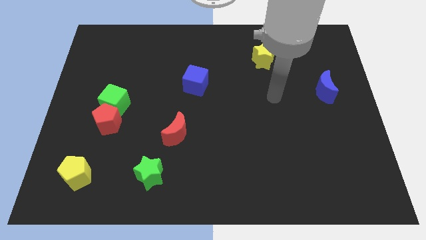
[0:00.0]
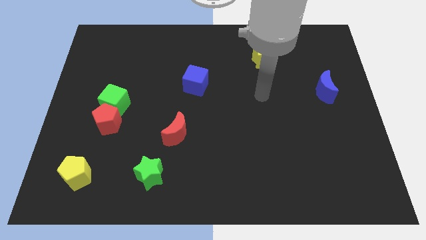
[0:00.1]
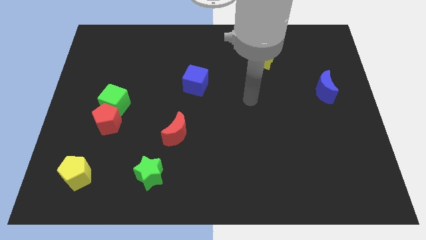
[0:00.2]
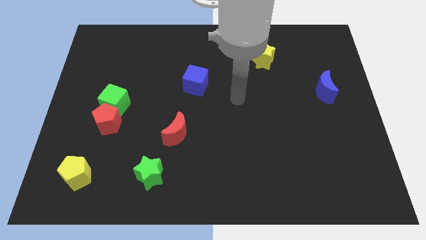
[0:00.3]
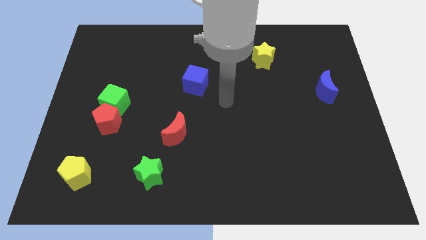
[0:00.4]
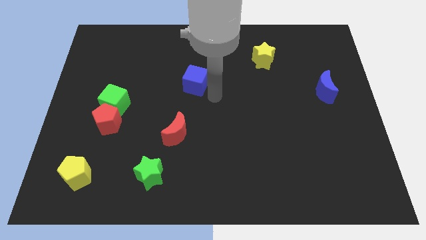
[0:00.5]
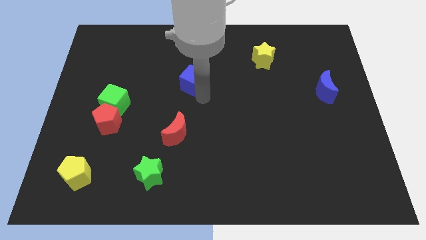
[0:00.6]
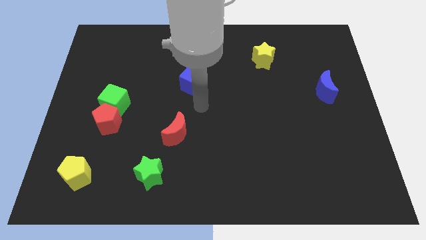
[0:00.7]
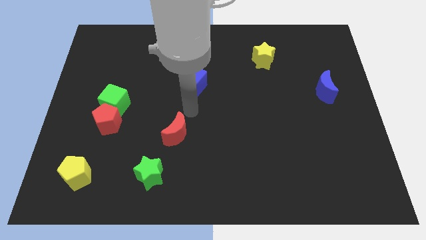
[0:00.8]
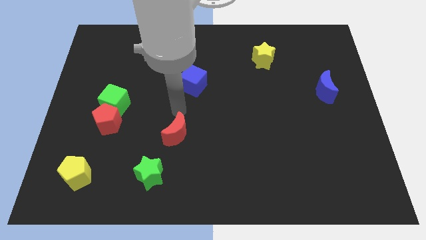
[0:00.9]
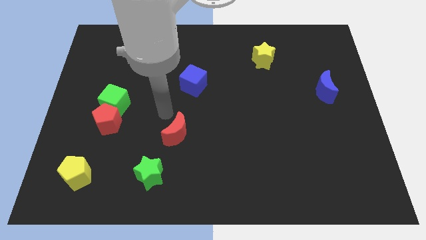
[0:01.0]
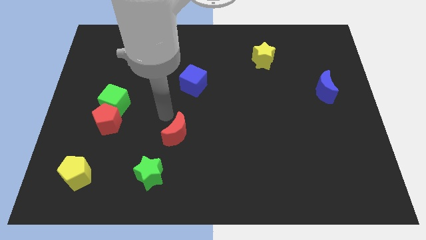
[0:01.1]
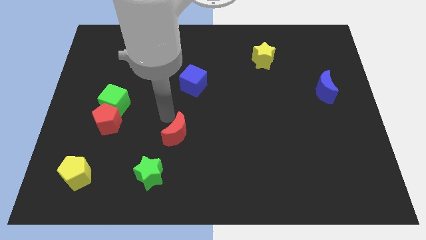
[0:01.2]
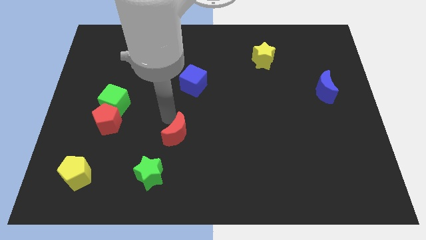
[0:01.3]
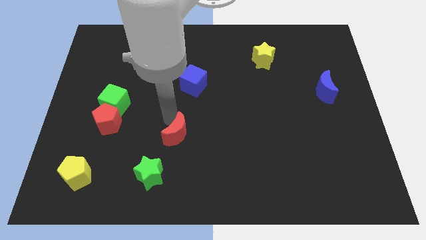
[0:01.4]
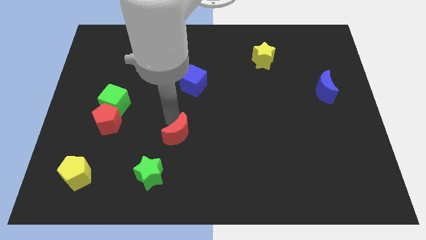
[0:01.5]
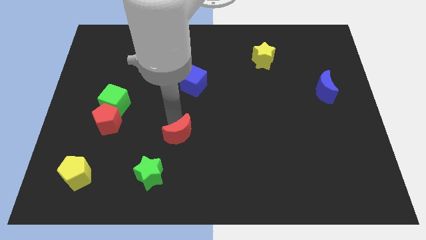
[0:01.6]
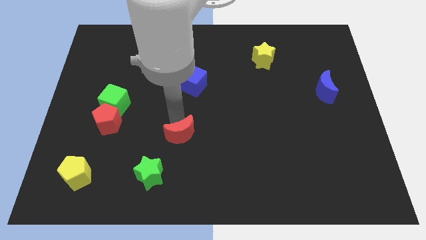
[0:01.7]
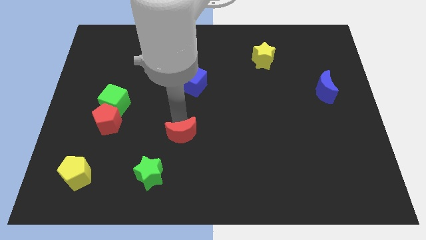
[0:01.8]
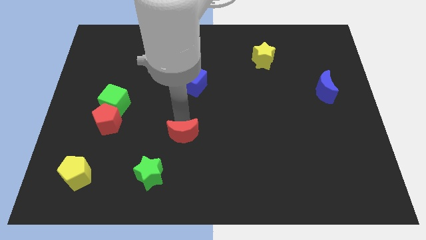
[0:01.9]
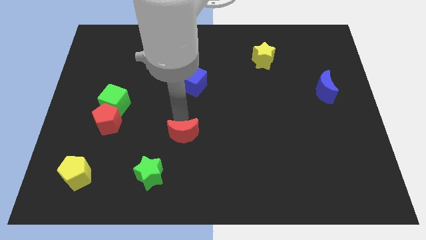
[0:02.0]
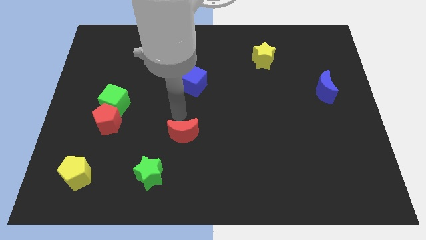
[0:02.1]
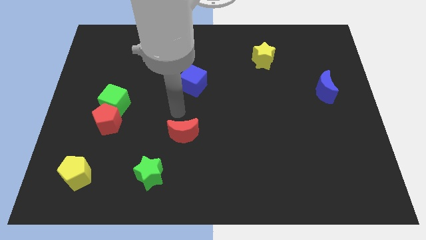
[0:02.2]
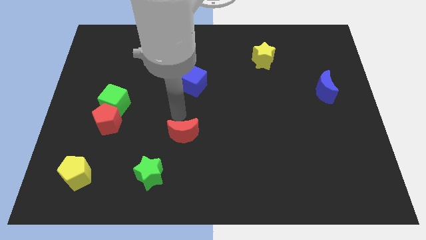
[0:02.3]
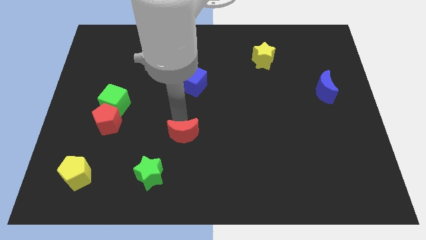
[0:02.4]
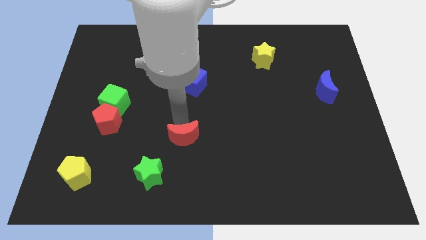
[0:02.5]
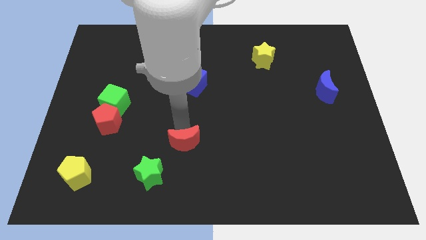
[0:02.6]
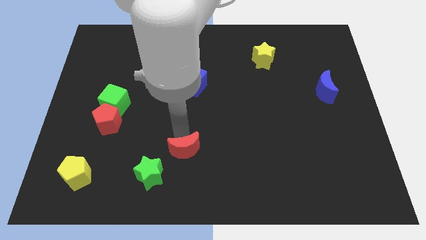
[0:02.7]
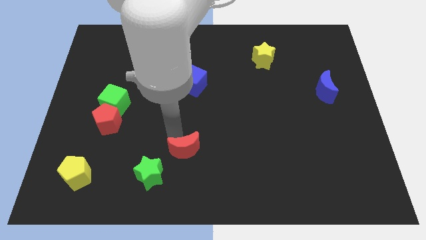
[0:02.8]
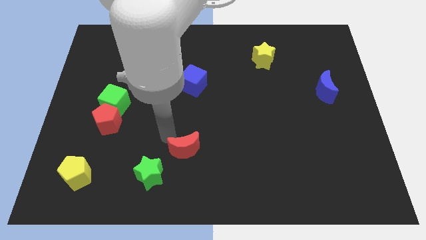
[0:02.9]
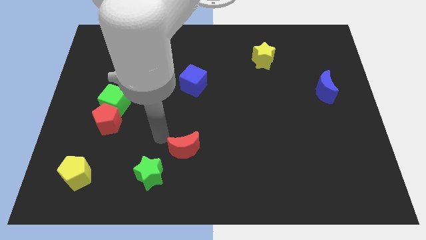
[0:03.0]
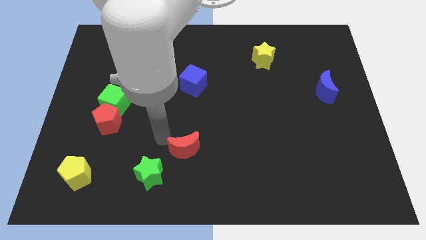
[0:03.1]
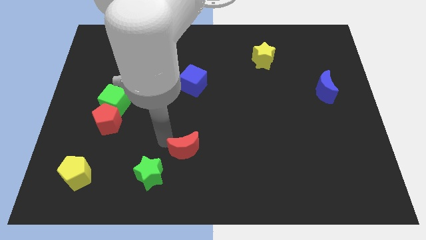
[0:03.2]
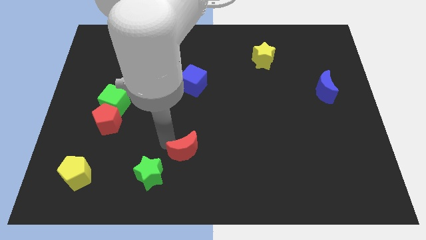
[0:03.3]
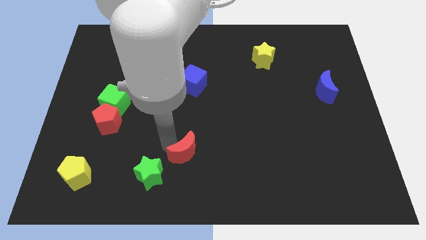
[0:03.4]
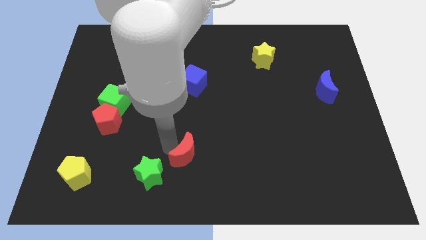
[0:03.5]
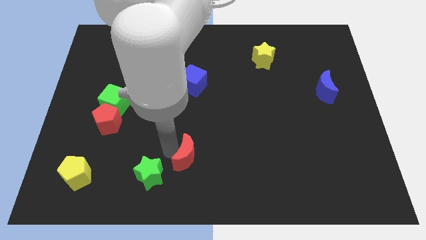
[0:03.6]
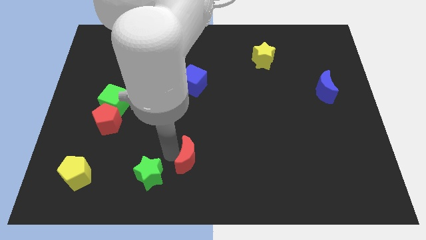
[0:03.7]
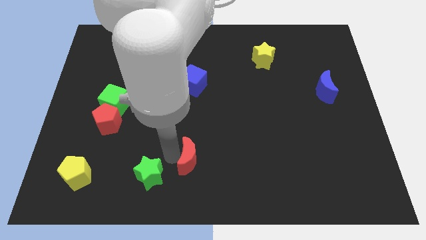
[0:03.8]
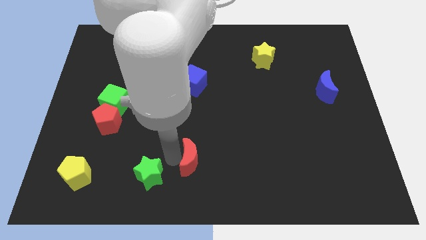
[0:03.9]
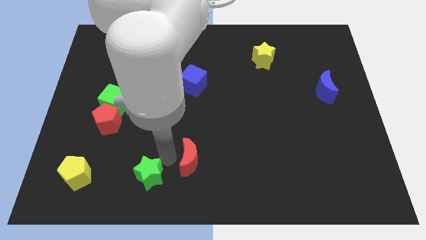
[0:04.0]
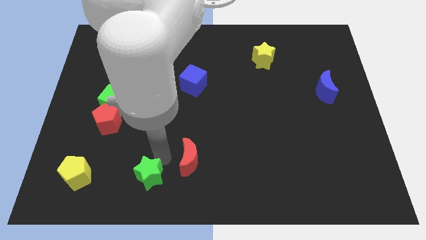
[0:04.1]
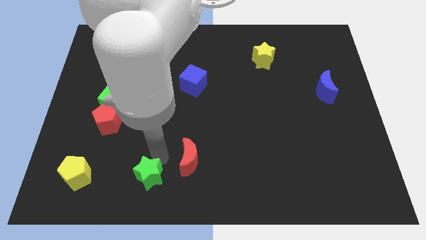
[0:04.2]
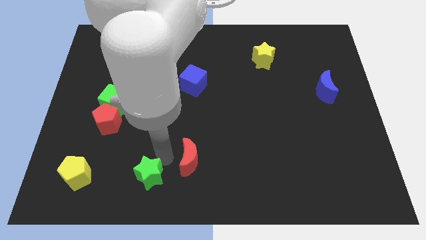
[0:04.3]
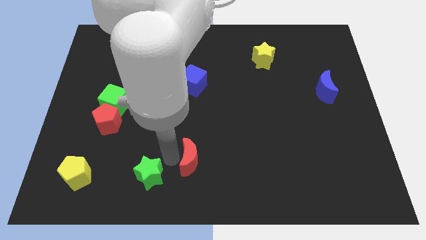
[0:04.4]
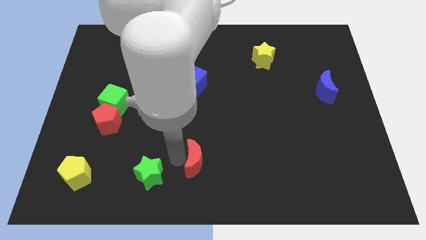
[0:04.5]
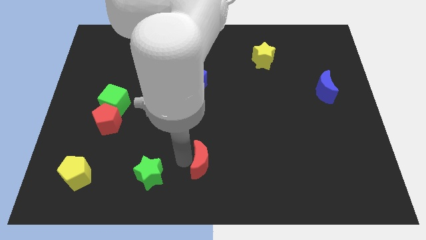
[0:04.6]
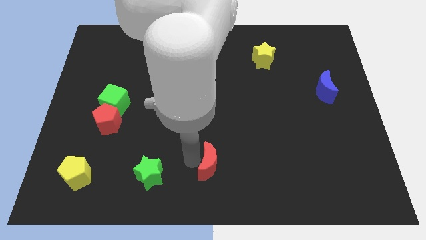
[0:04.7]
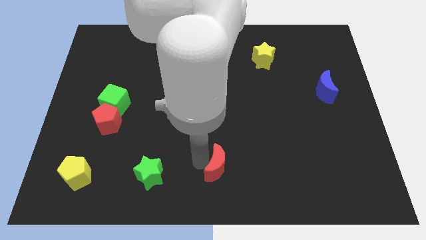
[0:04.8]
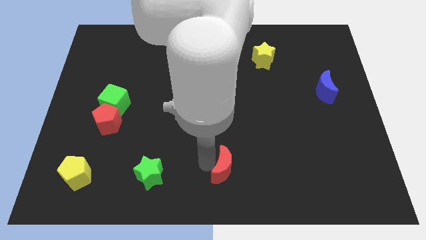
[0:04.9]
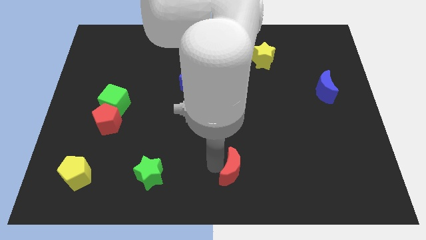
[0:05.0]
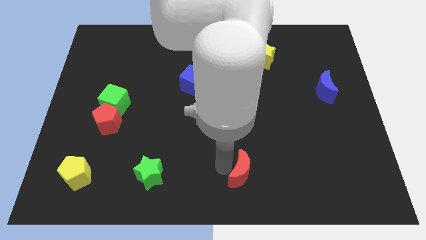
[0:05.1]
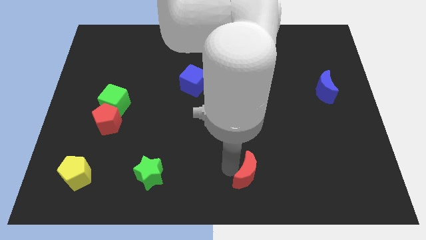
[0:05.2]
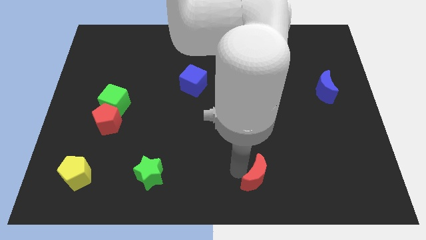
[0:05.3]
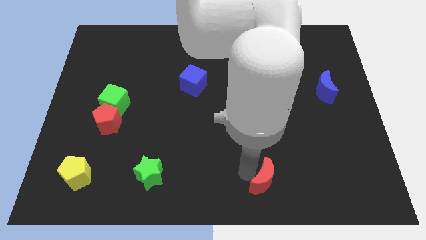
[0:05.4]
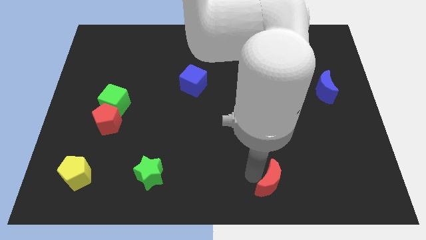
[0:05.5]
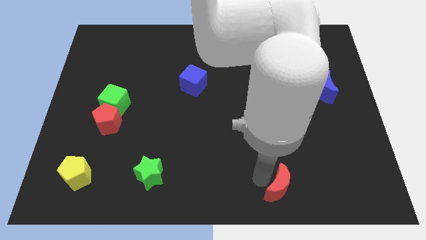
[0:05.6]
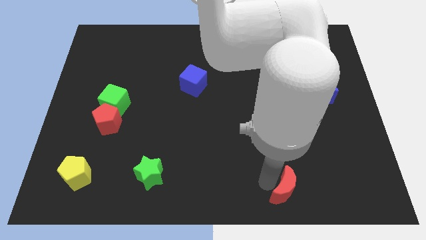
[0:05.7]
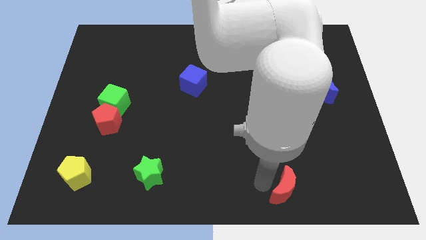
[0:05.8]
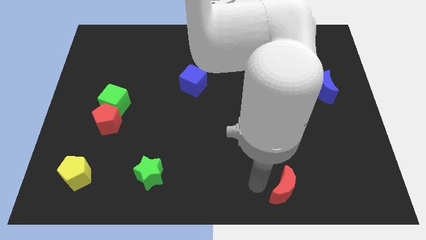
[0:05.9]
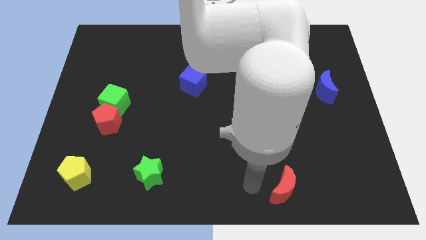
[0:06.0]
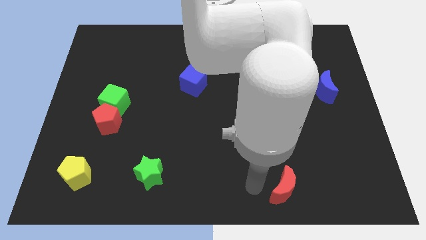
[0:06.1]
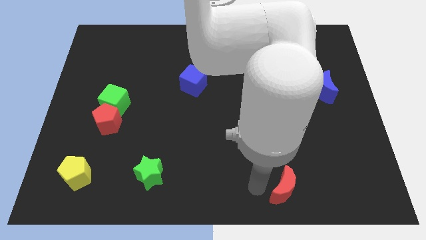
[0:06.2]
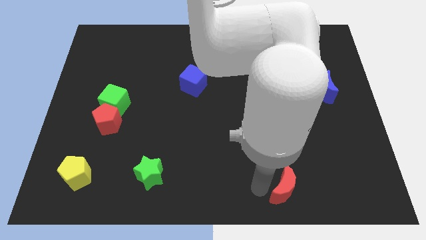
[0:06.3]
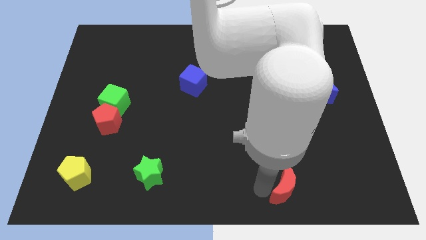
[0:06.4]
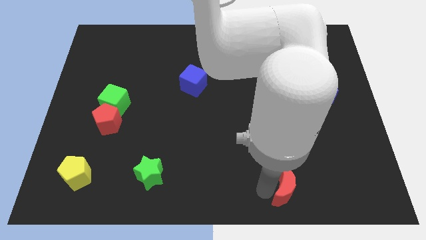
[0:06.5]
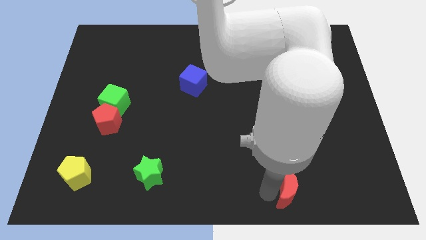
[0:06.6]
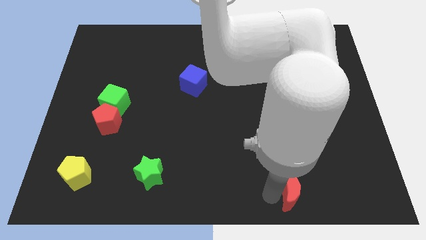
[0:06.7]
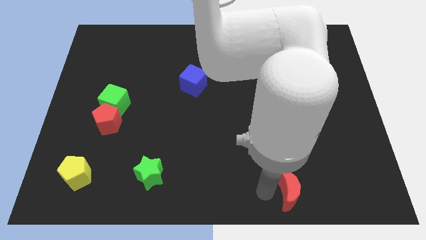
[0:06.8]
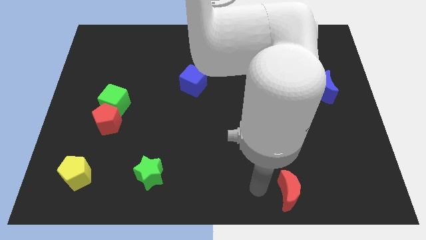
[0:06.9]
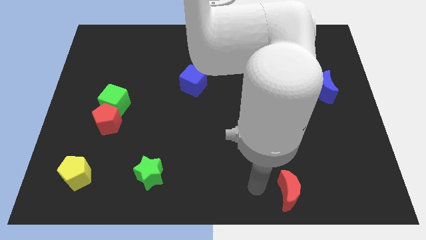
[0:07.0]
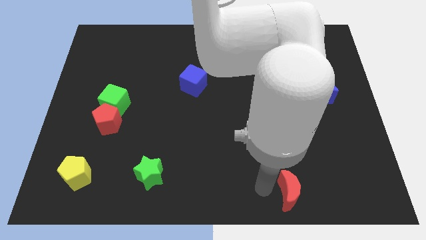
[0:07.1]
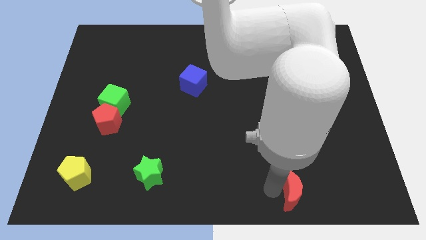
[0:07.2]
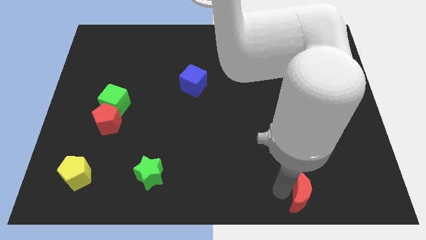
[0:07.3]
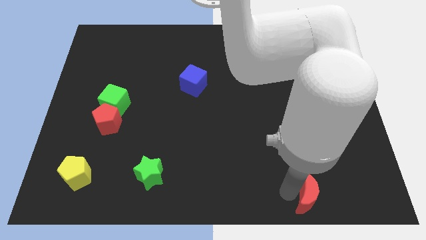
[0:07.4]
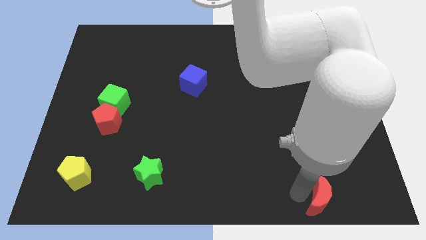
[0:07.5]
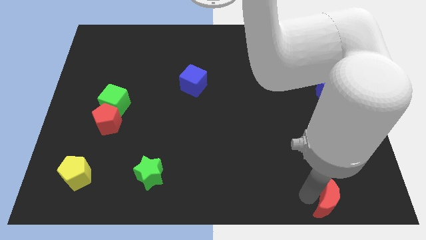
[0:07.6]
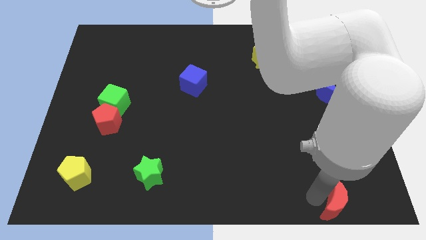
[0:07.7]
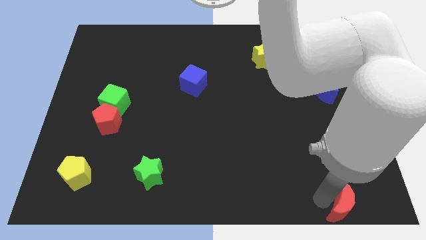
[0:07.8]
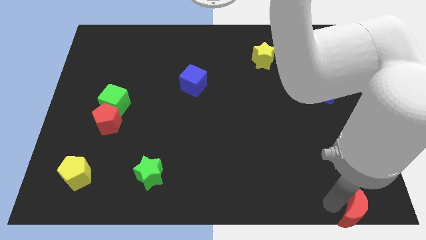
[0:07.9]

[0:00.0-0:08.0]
put the red moon to the bottom right of the board
